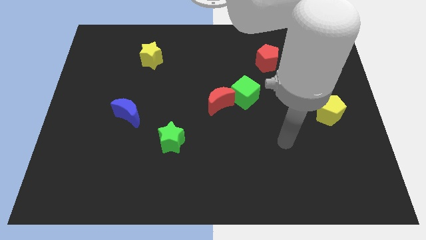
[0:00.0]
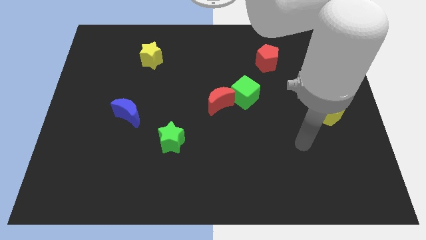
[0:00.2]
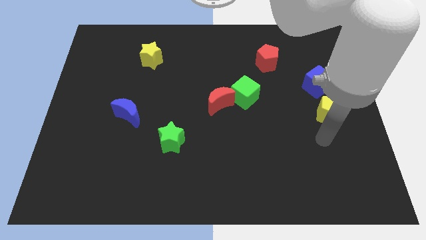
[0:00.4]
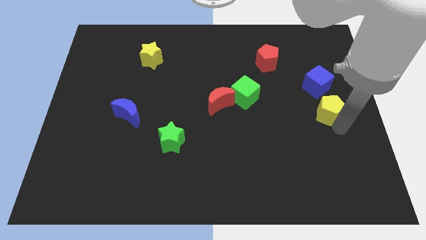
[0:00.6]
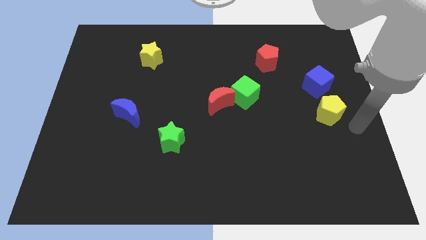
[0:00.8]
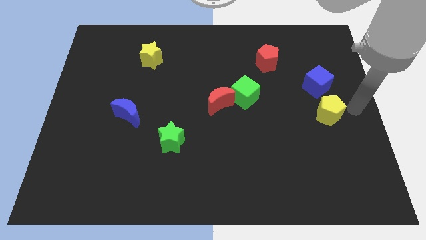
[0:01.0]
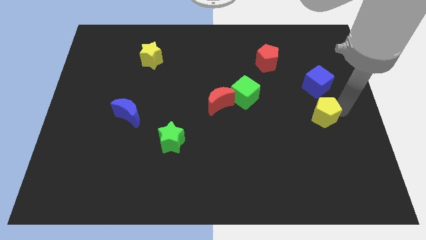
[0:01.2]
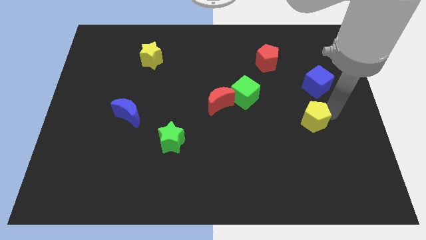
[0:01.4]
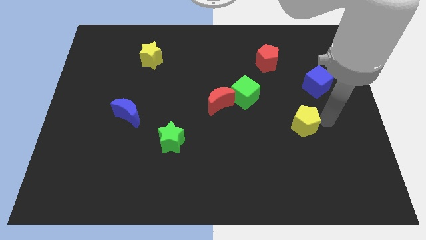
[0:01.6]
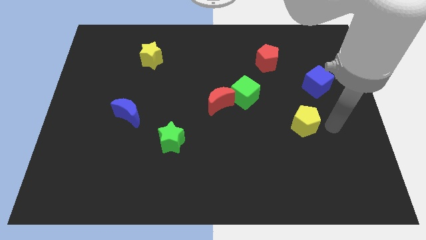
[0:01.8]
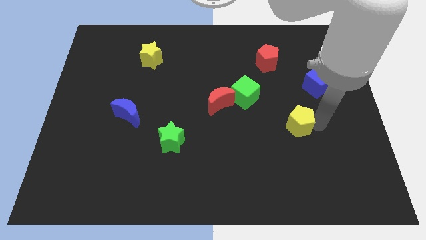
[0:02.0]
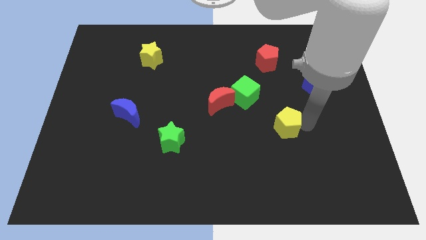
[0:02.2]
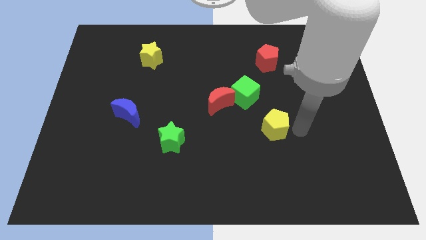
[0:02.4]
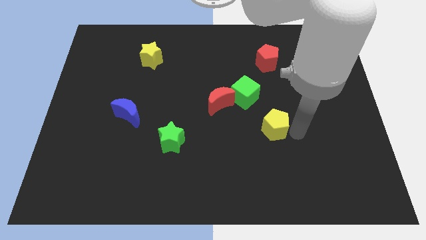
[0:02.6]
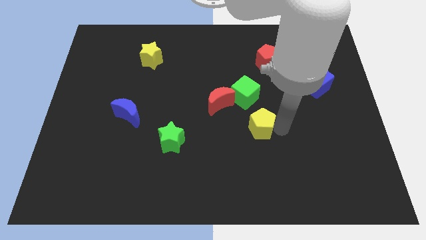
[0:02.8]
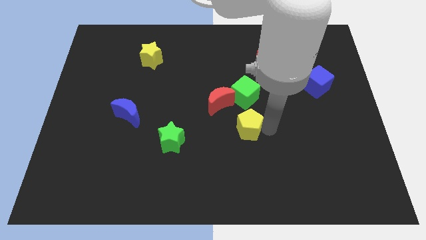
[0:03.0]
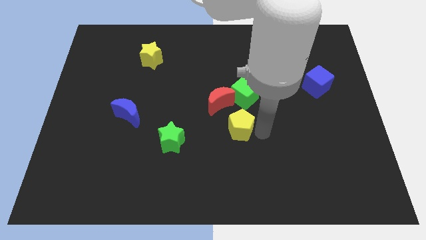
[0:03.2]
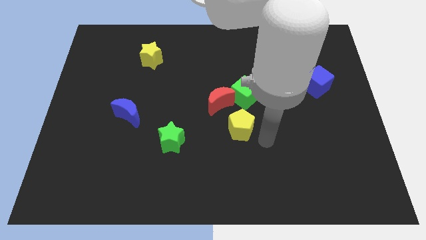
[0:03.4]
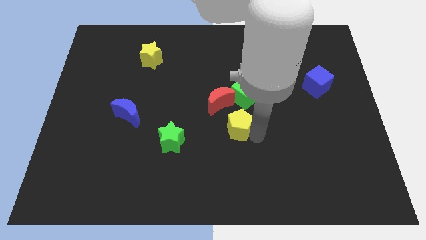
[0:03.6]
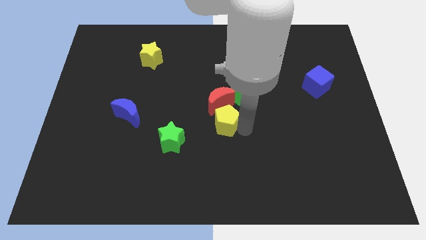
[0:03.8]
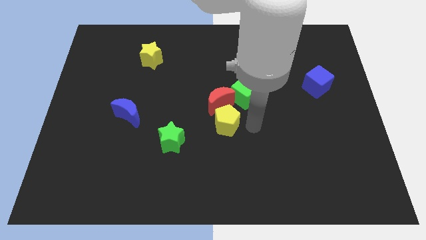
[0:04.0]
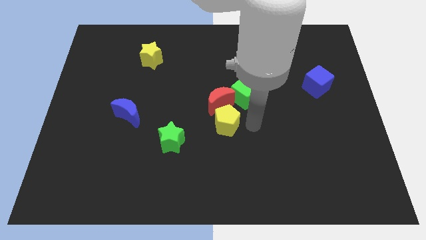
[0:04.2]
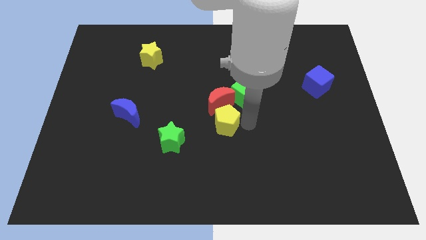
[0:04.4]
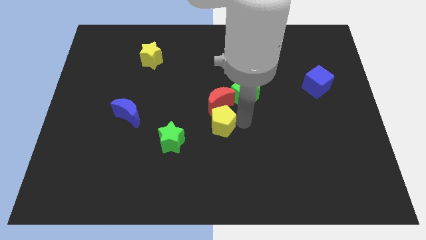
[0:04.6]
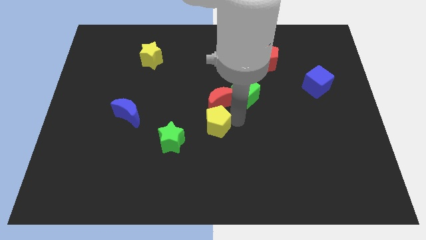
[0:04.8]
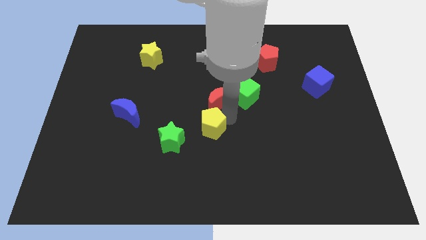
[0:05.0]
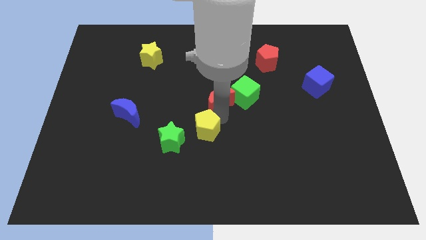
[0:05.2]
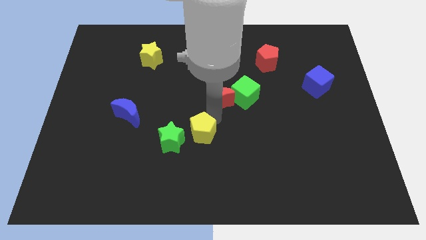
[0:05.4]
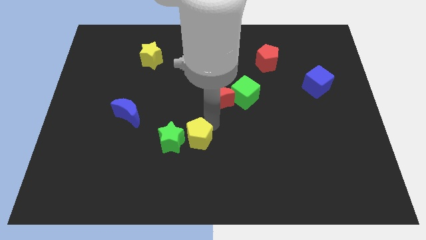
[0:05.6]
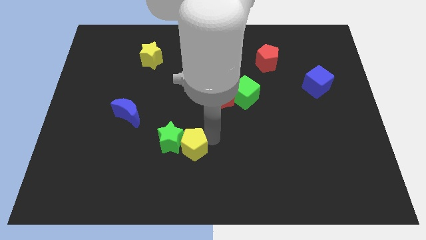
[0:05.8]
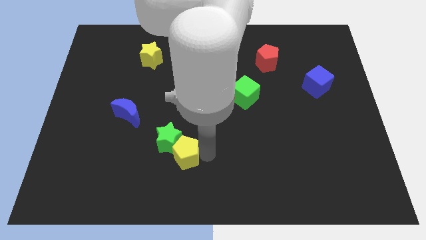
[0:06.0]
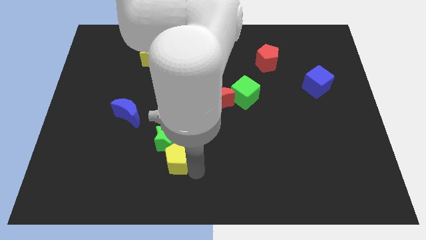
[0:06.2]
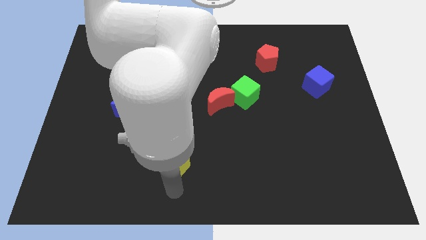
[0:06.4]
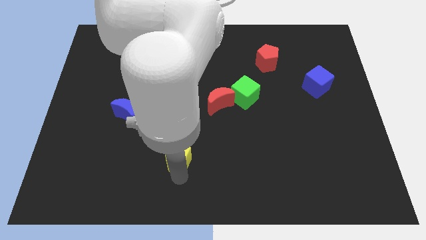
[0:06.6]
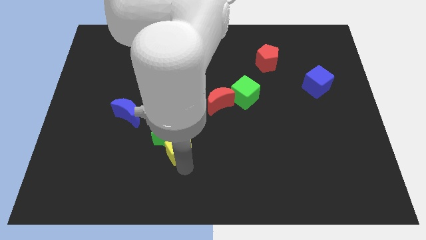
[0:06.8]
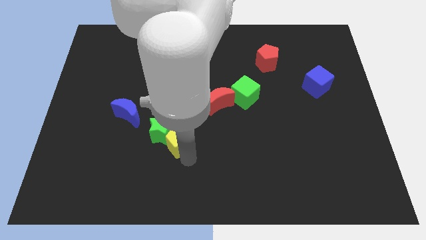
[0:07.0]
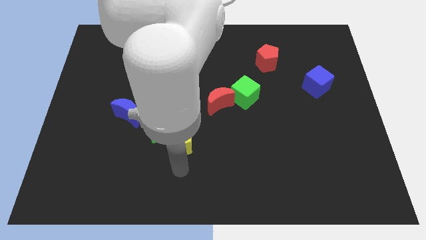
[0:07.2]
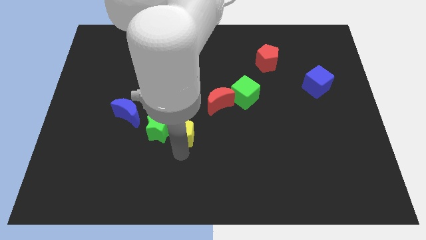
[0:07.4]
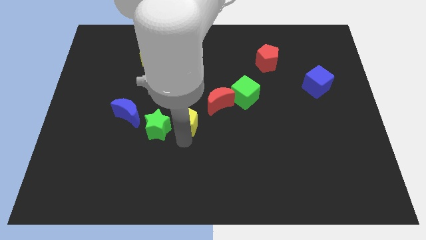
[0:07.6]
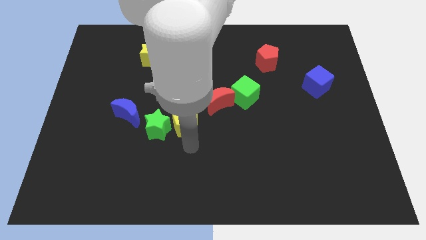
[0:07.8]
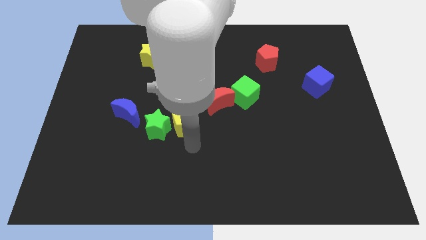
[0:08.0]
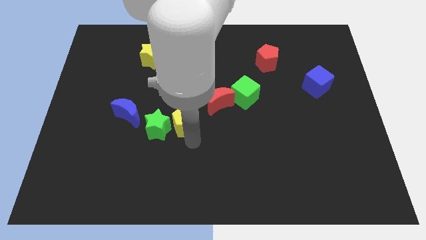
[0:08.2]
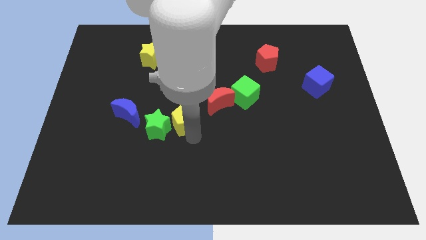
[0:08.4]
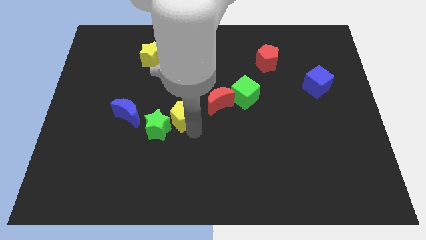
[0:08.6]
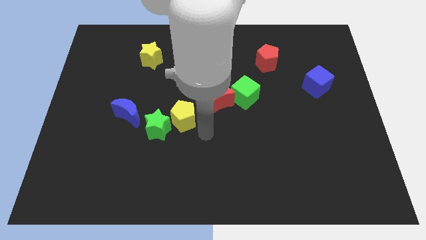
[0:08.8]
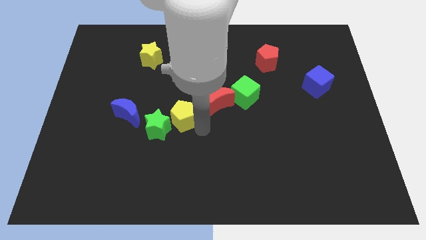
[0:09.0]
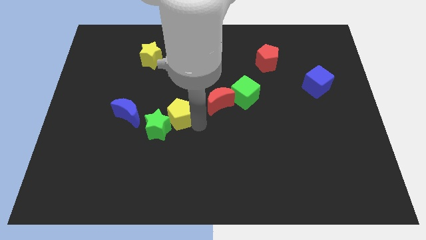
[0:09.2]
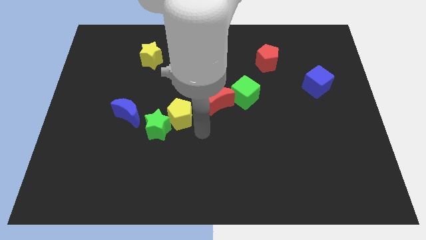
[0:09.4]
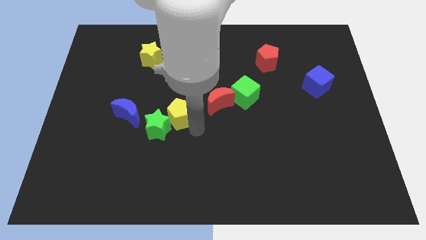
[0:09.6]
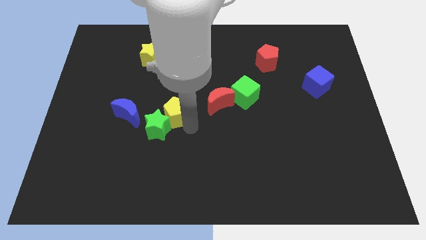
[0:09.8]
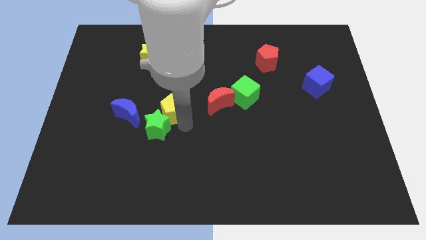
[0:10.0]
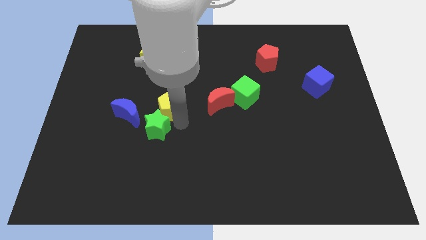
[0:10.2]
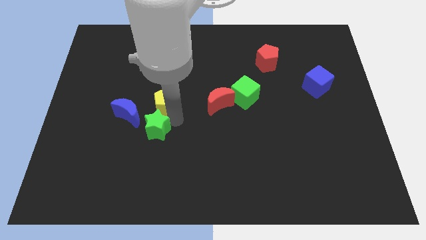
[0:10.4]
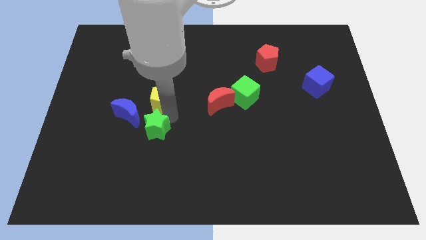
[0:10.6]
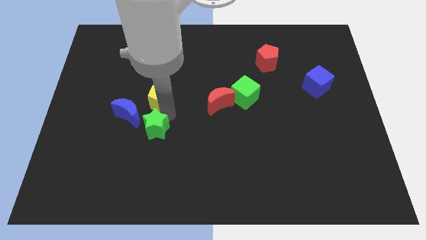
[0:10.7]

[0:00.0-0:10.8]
move the yellow pentagon below the yellow star
